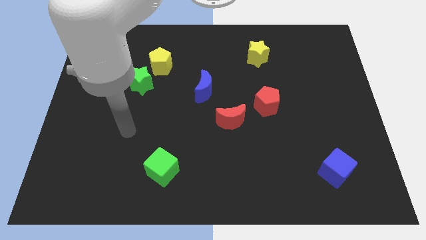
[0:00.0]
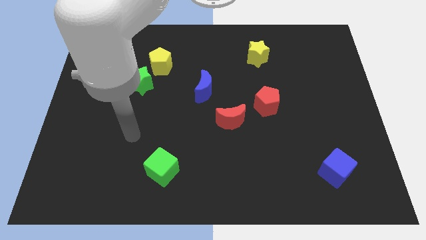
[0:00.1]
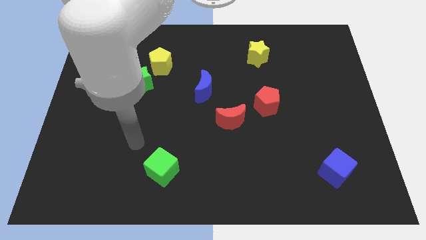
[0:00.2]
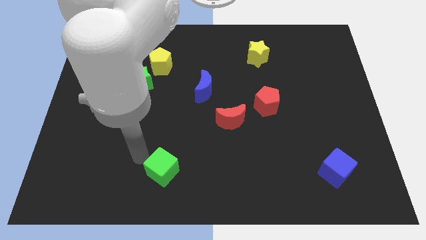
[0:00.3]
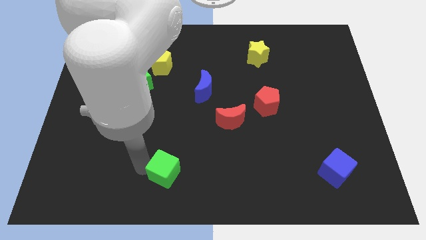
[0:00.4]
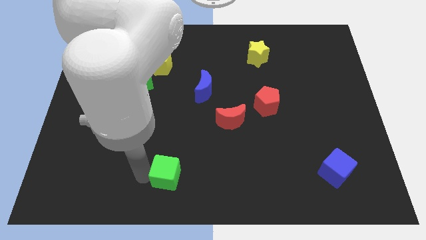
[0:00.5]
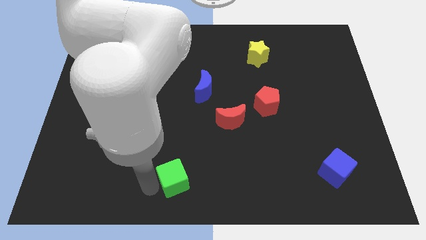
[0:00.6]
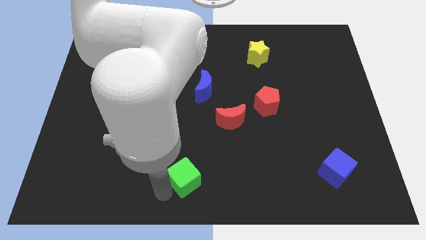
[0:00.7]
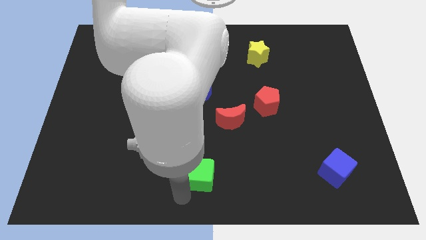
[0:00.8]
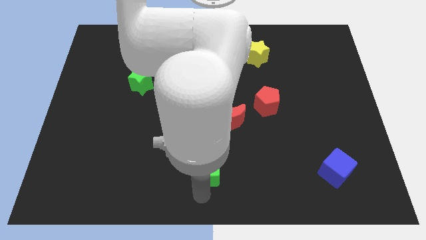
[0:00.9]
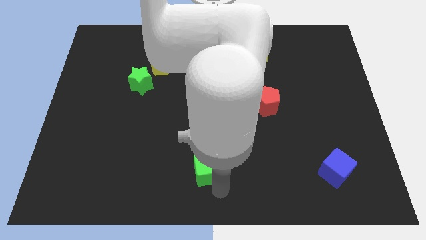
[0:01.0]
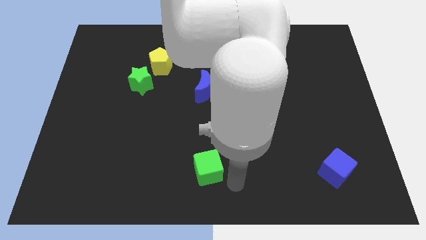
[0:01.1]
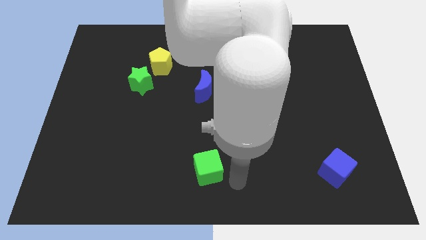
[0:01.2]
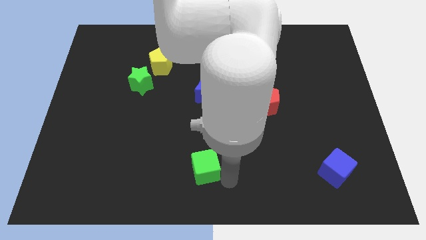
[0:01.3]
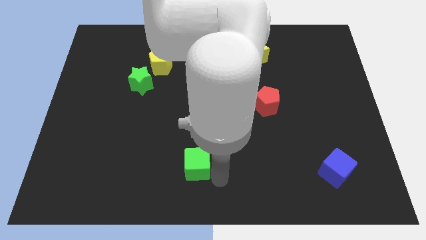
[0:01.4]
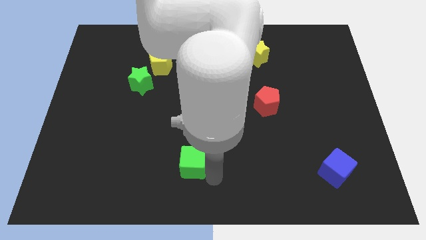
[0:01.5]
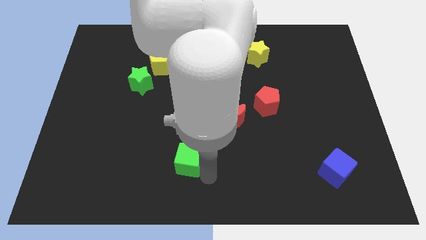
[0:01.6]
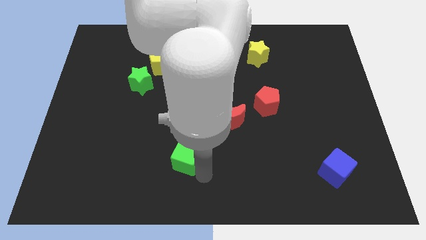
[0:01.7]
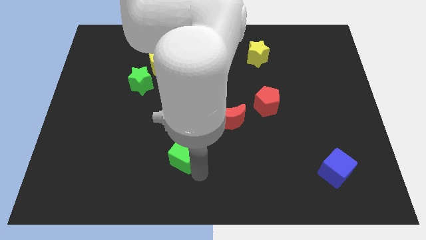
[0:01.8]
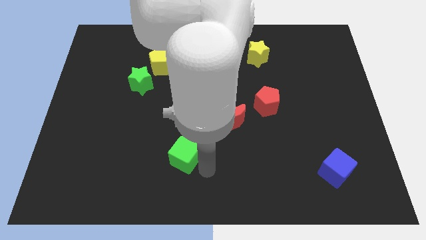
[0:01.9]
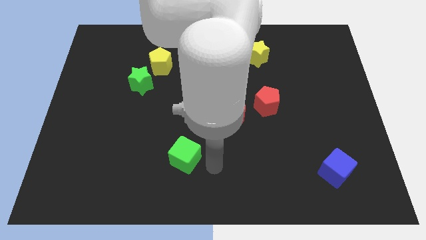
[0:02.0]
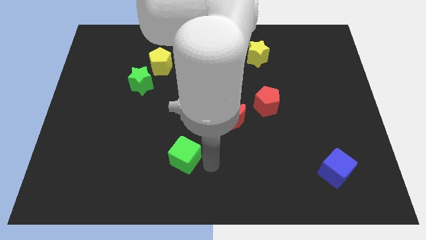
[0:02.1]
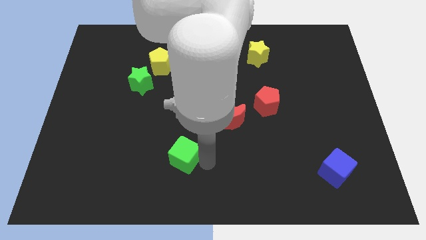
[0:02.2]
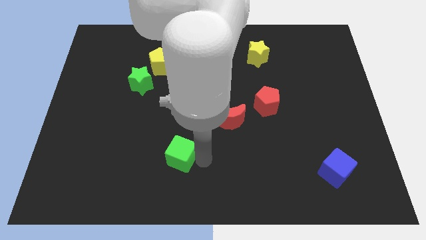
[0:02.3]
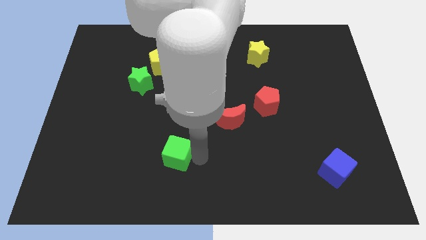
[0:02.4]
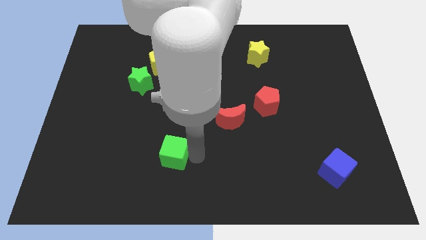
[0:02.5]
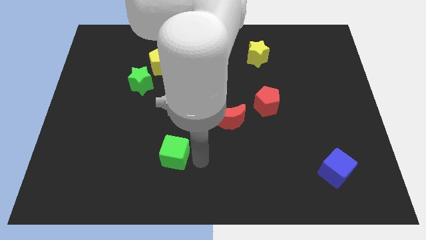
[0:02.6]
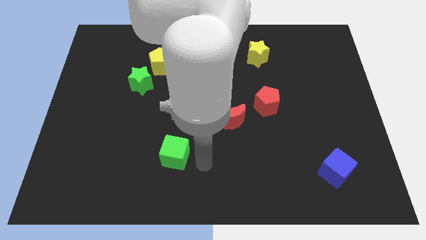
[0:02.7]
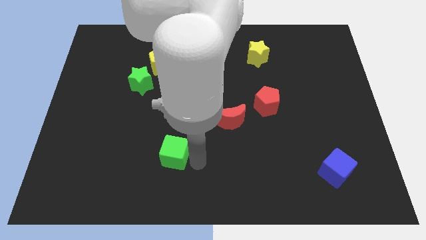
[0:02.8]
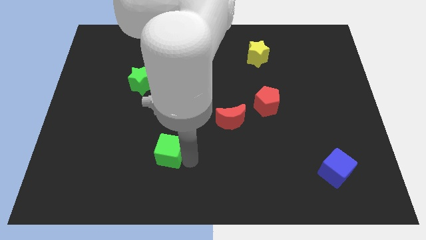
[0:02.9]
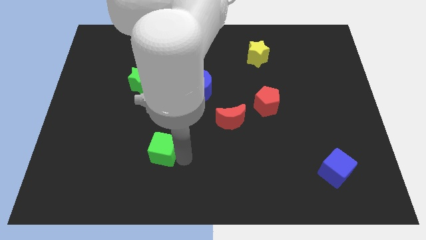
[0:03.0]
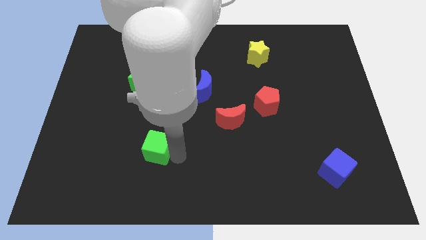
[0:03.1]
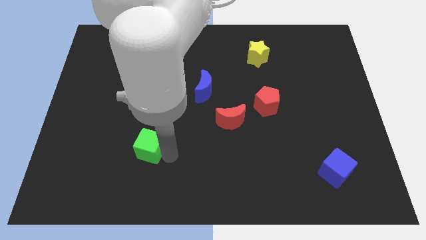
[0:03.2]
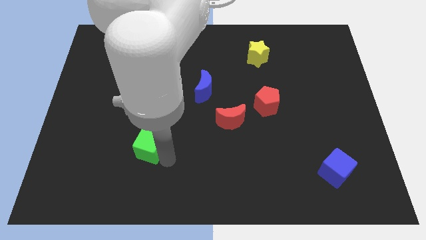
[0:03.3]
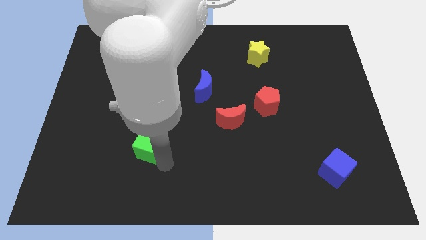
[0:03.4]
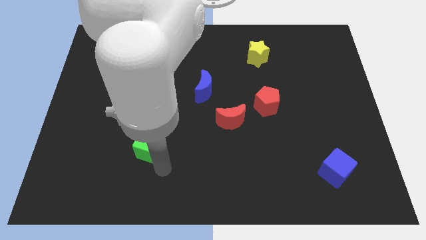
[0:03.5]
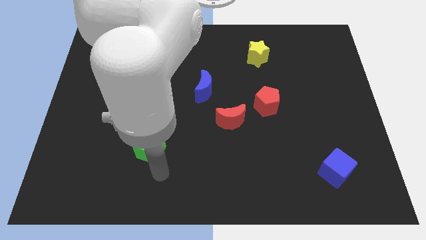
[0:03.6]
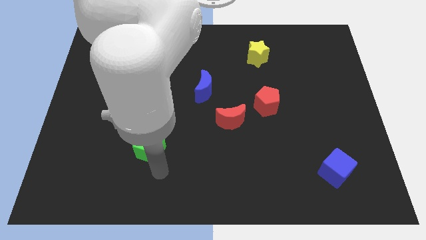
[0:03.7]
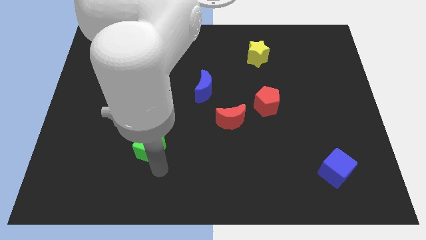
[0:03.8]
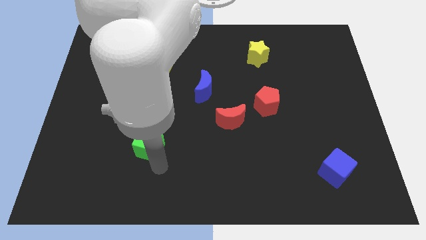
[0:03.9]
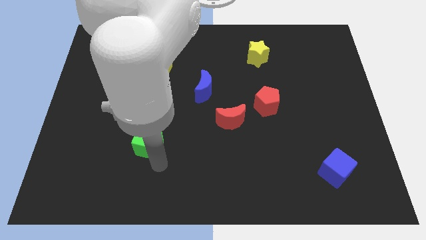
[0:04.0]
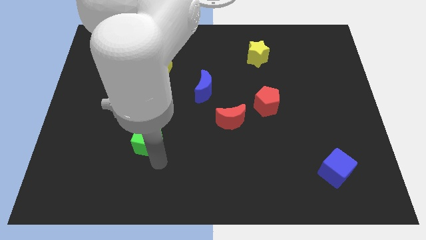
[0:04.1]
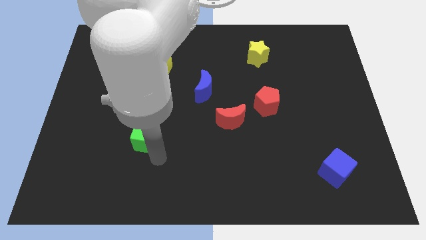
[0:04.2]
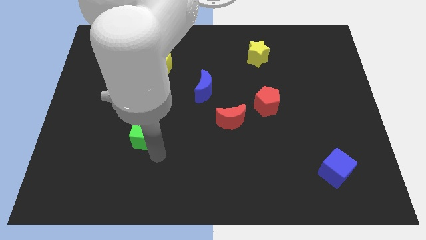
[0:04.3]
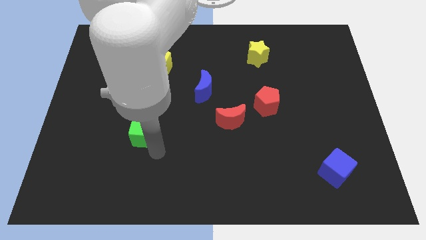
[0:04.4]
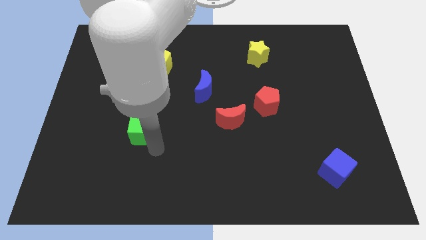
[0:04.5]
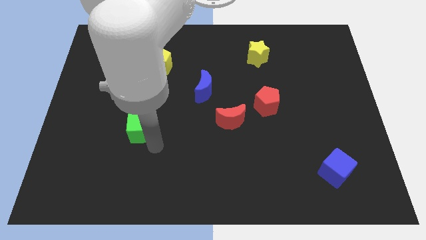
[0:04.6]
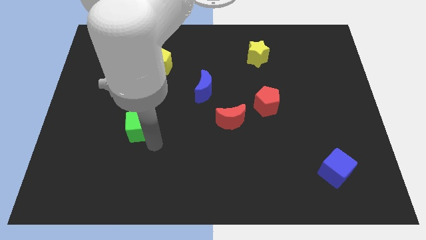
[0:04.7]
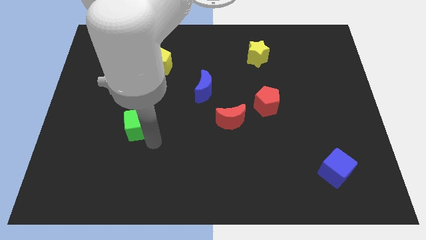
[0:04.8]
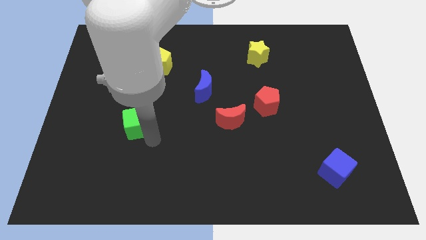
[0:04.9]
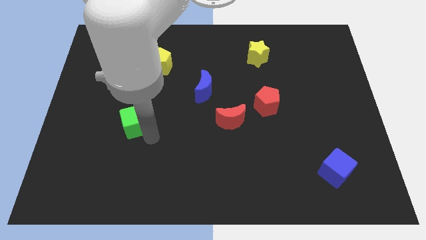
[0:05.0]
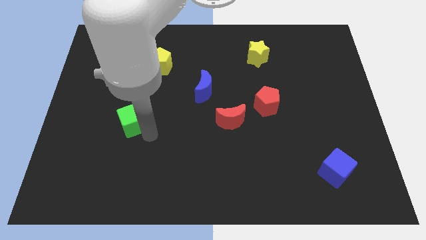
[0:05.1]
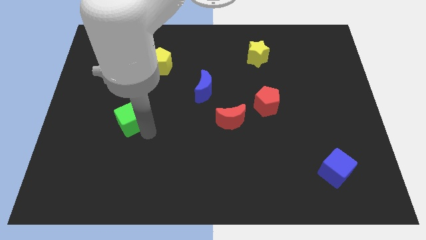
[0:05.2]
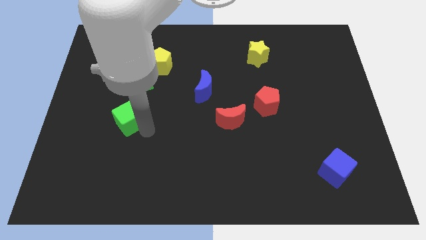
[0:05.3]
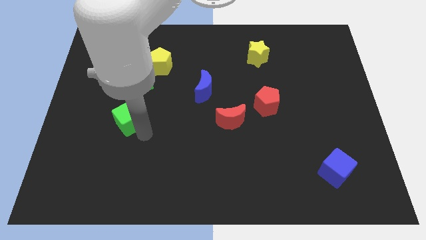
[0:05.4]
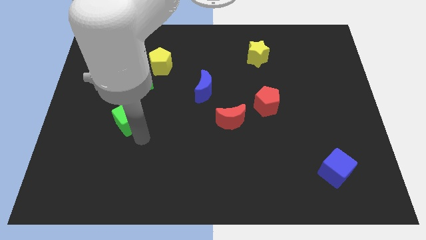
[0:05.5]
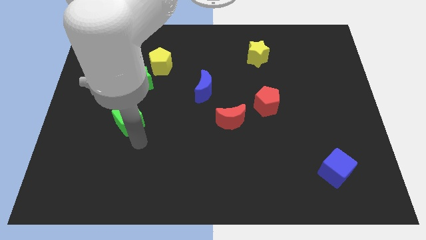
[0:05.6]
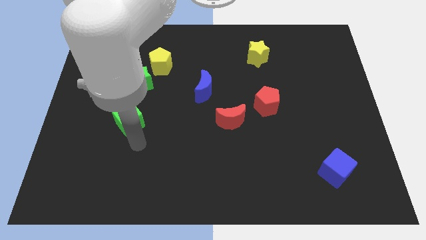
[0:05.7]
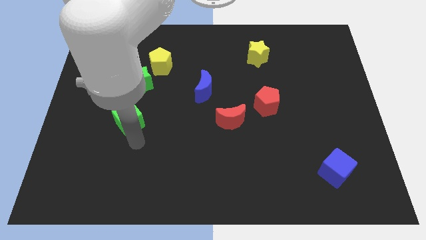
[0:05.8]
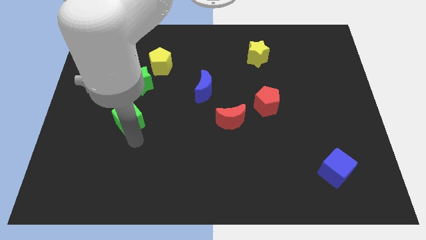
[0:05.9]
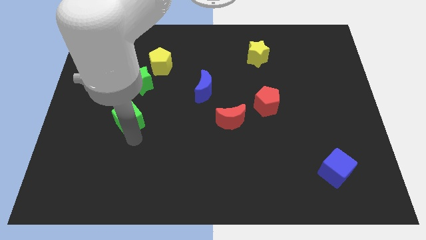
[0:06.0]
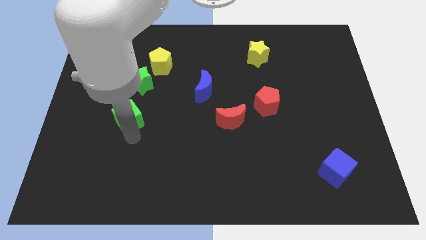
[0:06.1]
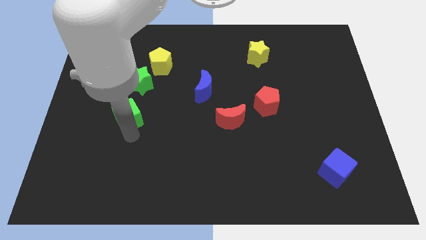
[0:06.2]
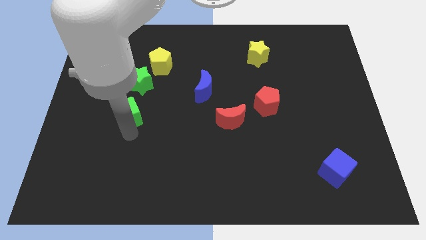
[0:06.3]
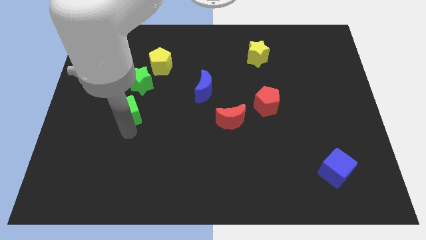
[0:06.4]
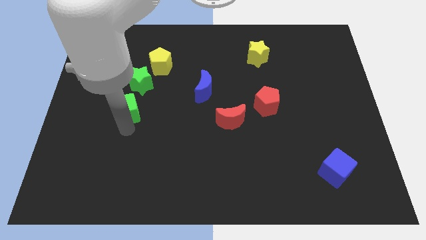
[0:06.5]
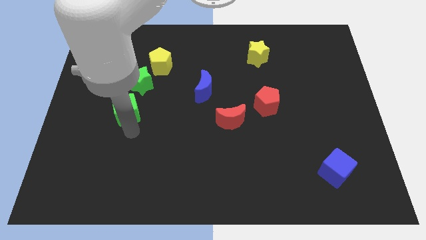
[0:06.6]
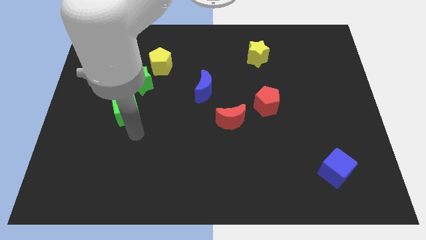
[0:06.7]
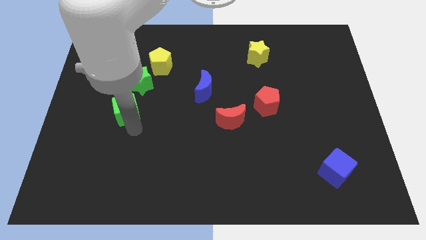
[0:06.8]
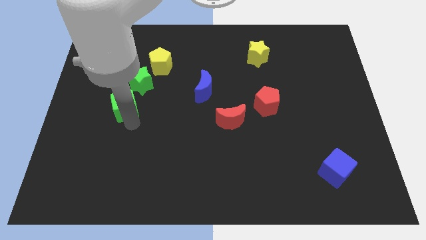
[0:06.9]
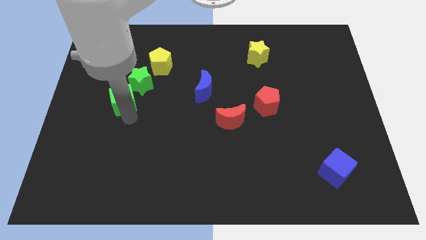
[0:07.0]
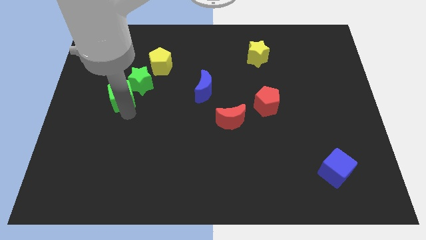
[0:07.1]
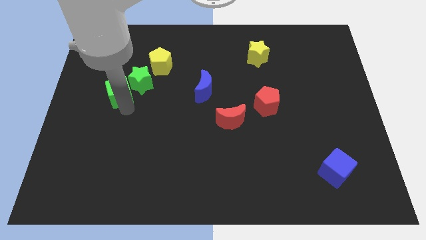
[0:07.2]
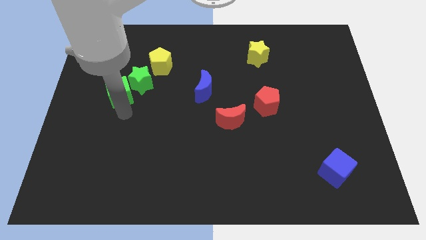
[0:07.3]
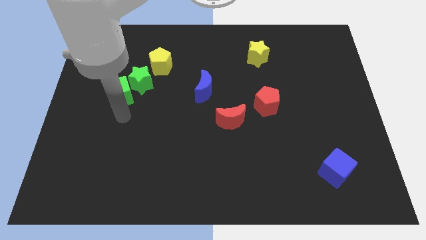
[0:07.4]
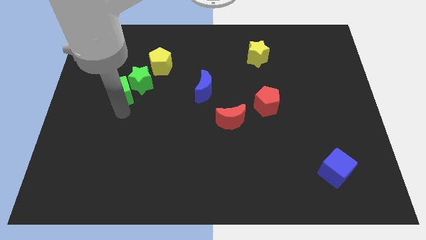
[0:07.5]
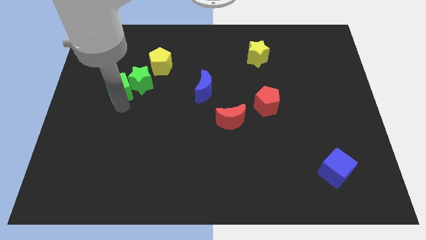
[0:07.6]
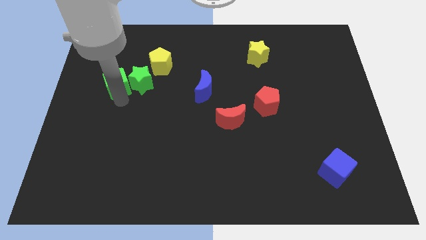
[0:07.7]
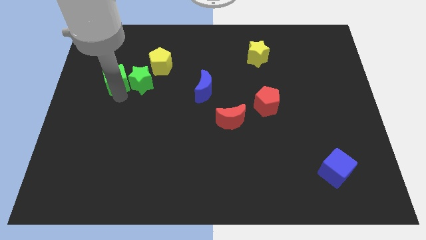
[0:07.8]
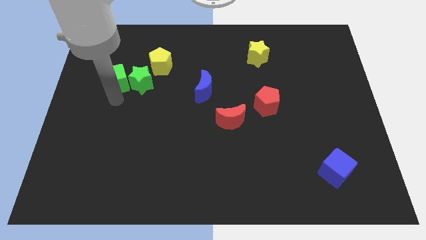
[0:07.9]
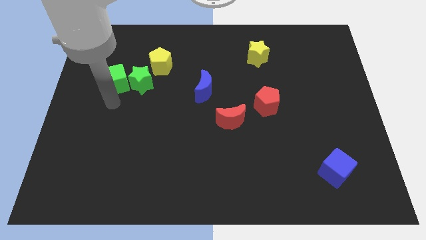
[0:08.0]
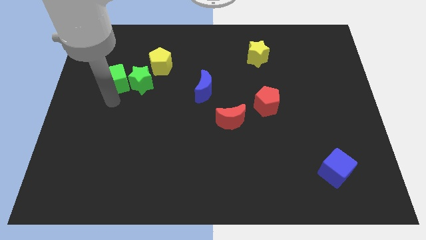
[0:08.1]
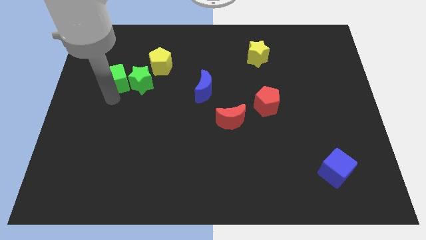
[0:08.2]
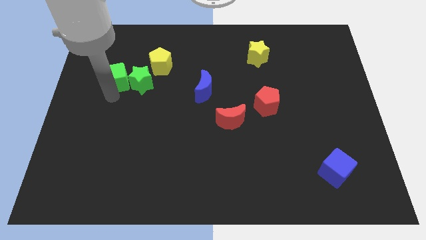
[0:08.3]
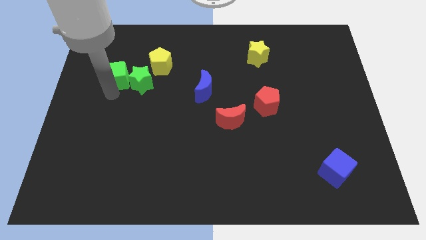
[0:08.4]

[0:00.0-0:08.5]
push the green cube left of the yellow pentagon
